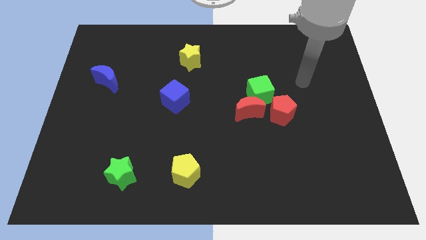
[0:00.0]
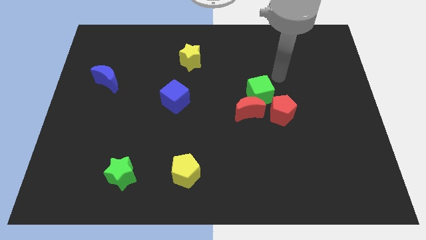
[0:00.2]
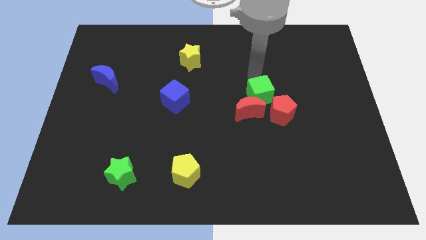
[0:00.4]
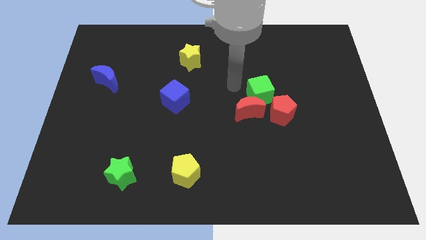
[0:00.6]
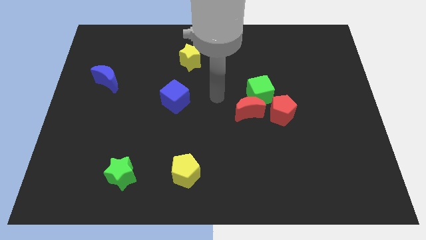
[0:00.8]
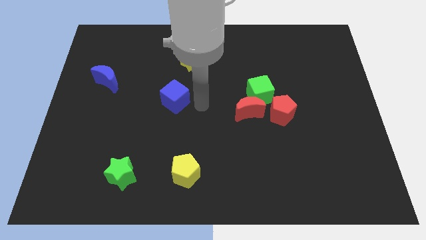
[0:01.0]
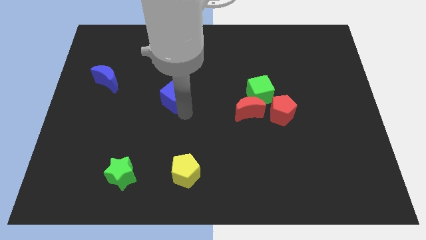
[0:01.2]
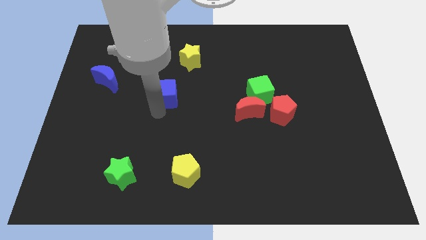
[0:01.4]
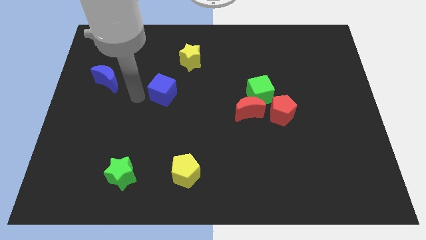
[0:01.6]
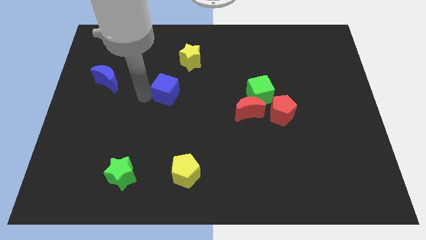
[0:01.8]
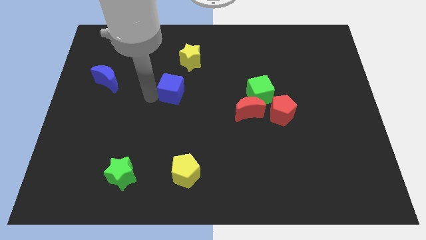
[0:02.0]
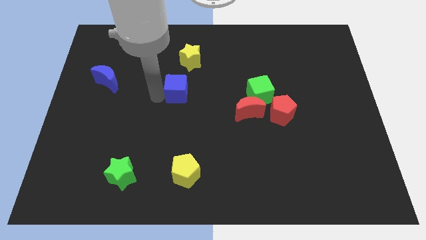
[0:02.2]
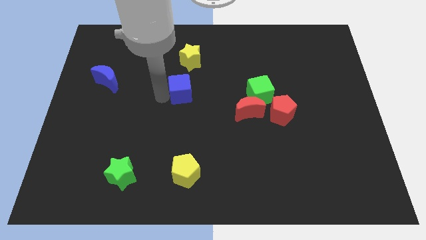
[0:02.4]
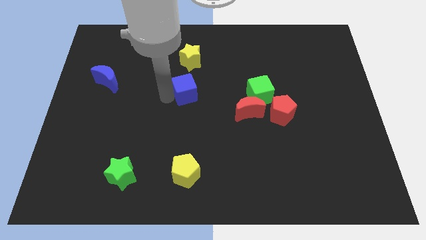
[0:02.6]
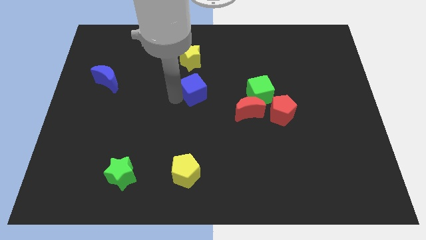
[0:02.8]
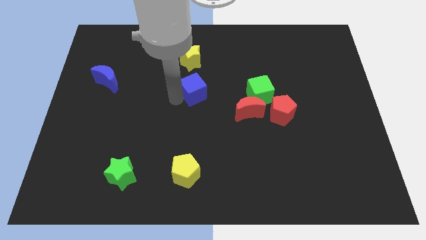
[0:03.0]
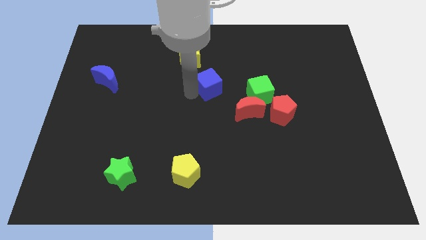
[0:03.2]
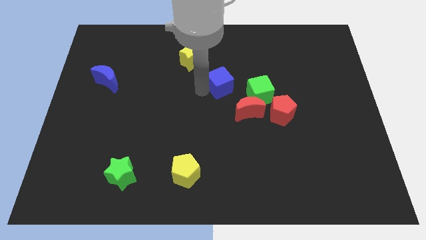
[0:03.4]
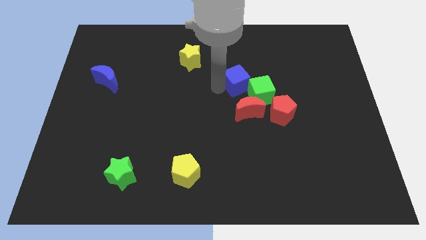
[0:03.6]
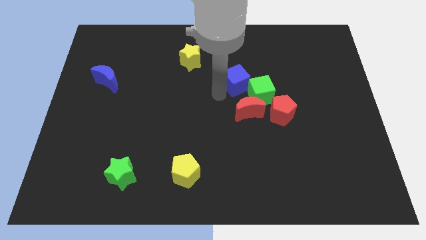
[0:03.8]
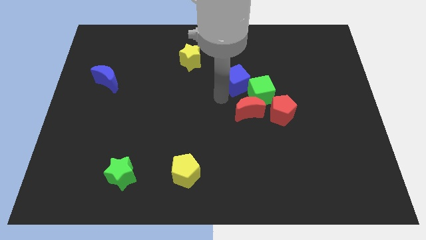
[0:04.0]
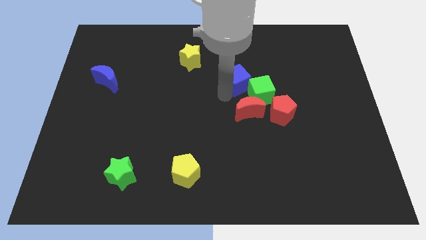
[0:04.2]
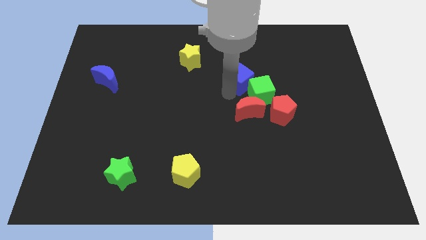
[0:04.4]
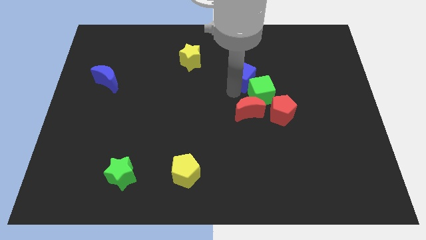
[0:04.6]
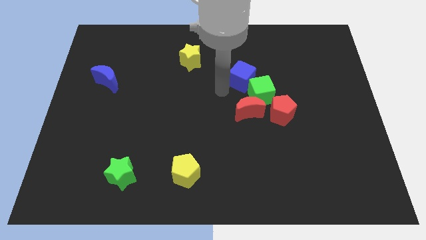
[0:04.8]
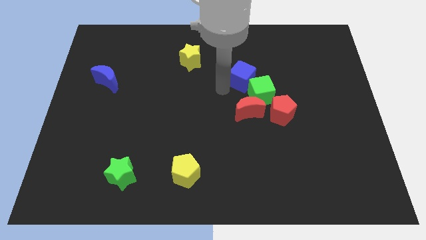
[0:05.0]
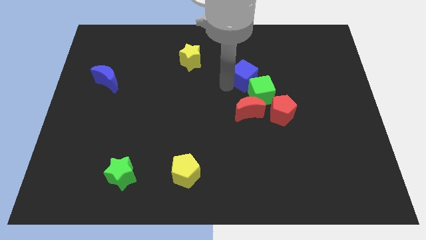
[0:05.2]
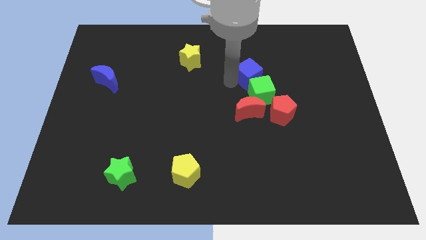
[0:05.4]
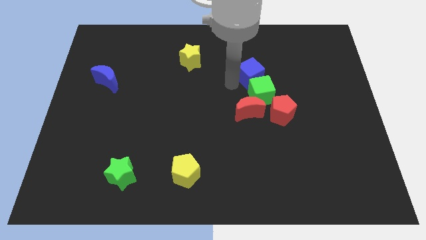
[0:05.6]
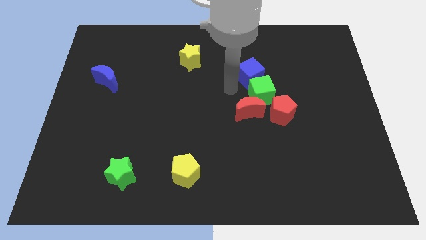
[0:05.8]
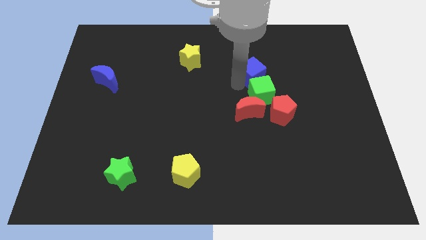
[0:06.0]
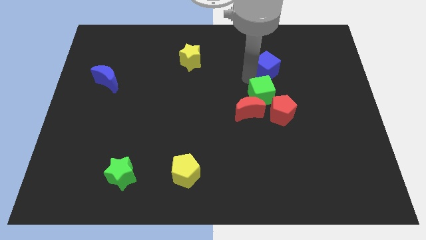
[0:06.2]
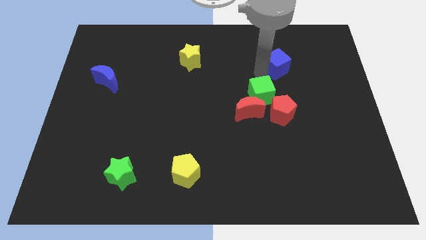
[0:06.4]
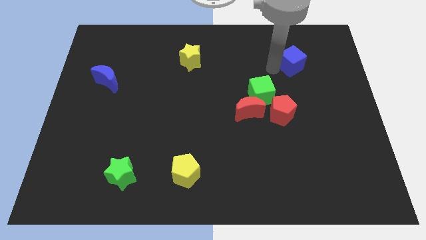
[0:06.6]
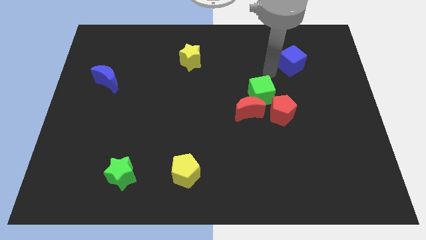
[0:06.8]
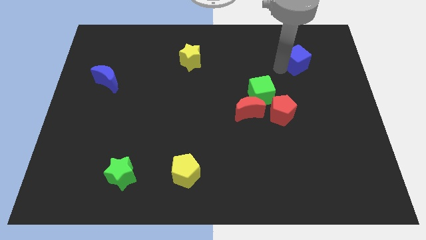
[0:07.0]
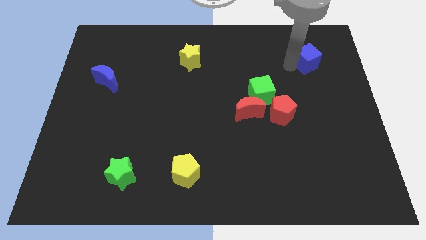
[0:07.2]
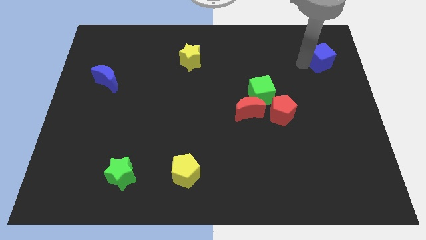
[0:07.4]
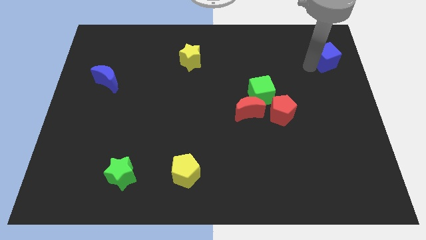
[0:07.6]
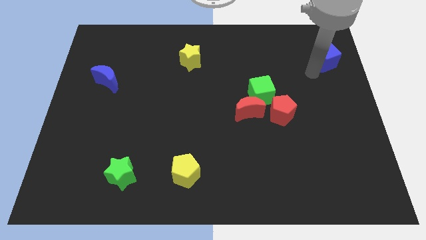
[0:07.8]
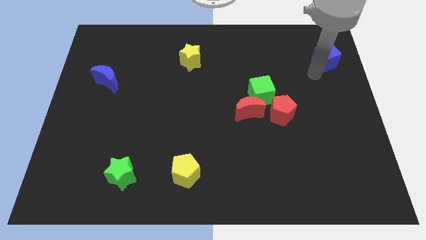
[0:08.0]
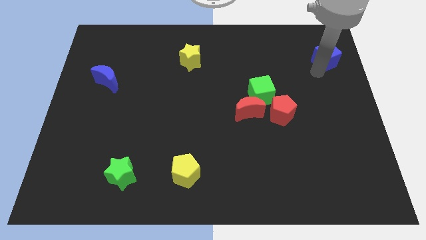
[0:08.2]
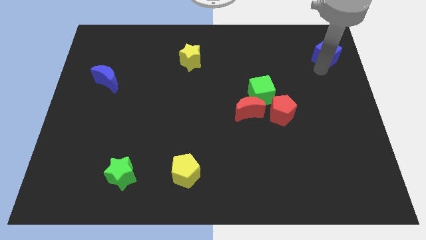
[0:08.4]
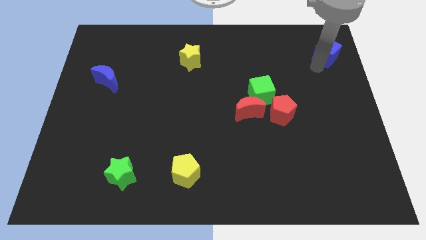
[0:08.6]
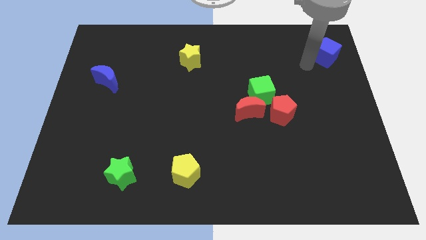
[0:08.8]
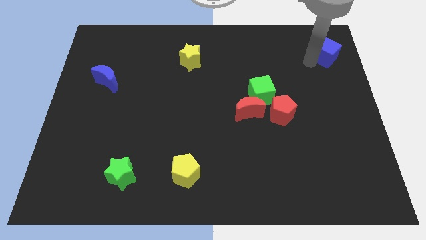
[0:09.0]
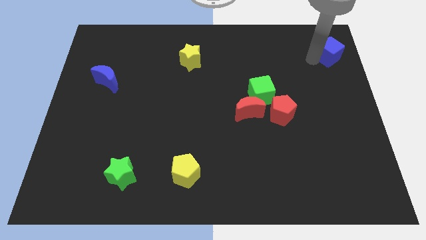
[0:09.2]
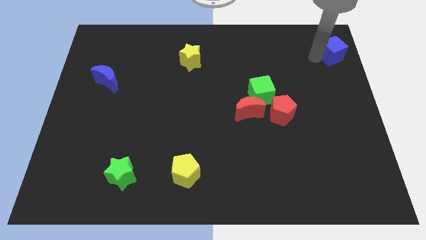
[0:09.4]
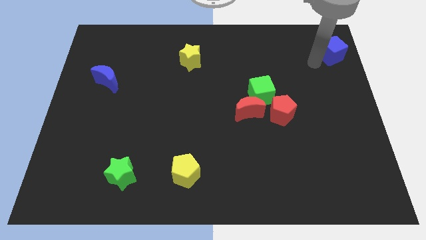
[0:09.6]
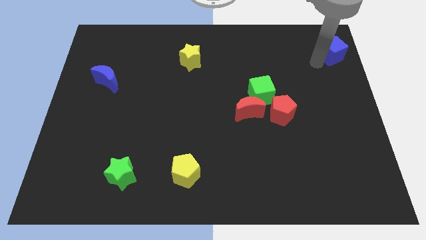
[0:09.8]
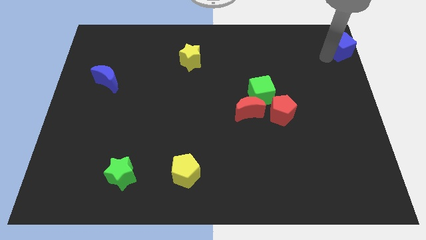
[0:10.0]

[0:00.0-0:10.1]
slide the blue cube to the upper right corner

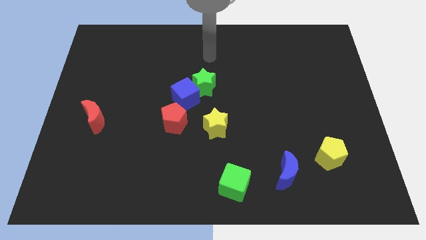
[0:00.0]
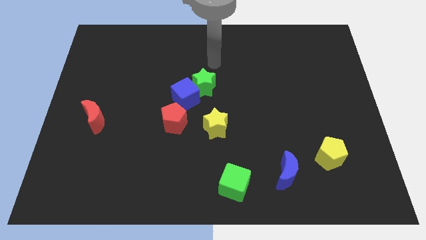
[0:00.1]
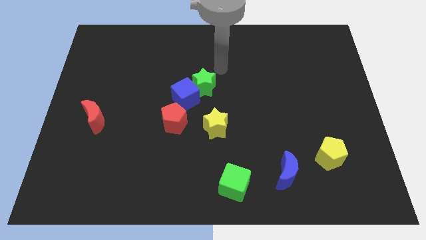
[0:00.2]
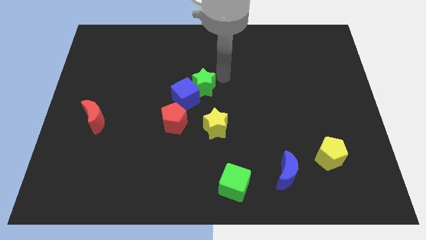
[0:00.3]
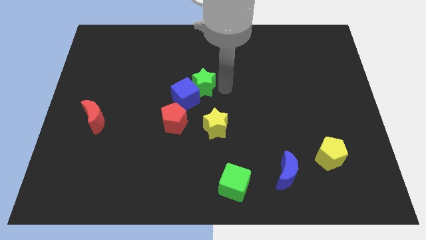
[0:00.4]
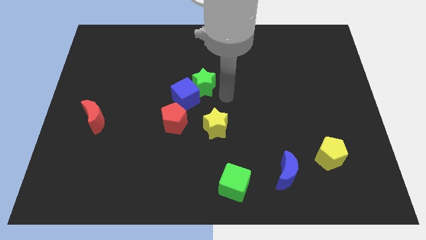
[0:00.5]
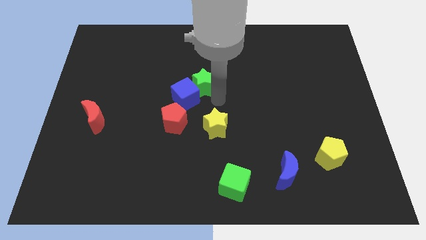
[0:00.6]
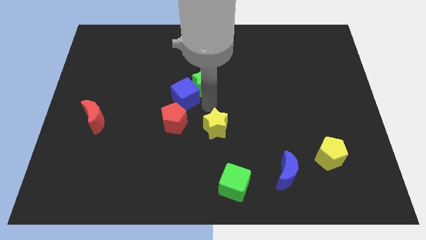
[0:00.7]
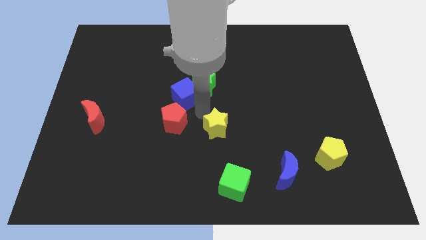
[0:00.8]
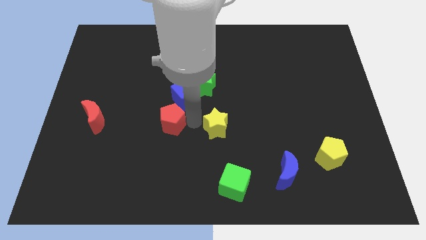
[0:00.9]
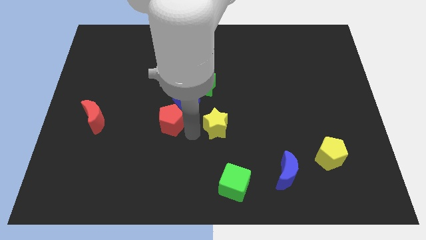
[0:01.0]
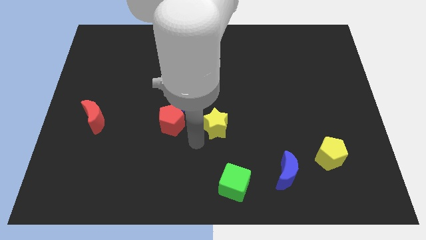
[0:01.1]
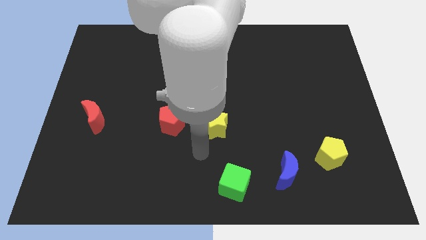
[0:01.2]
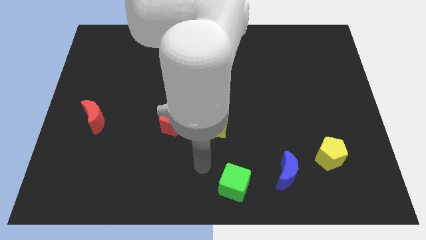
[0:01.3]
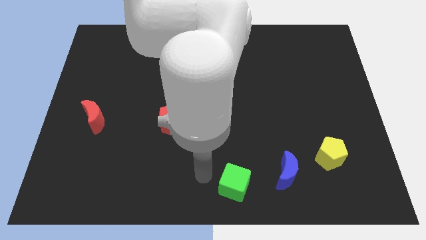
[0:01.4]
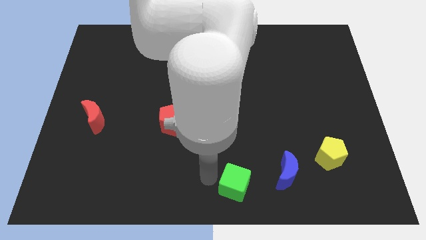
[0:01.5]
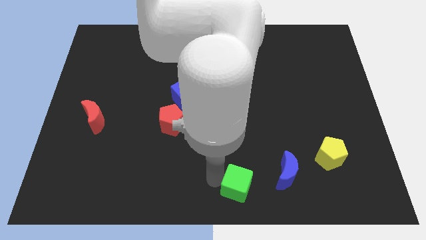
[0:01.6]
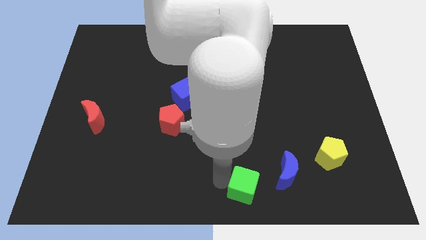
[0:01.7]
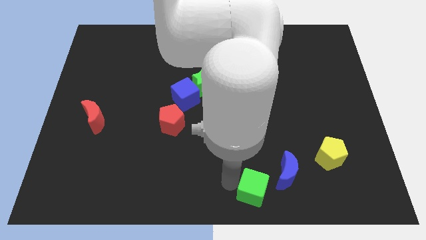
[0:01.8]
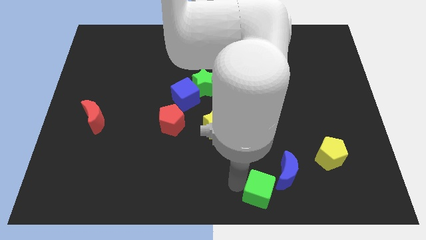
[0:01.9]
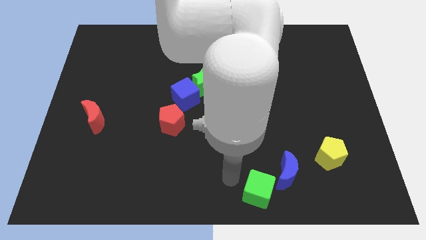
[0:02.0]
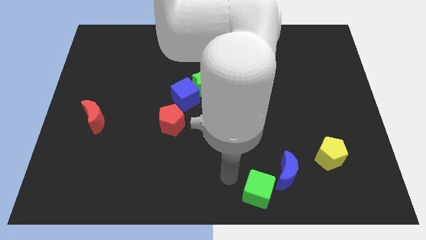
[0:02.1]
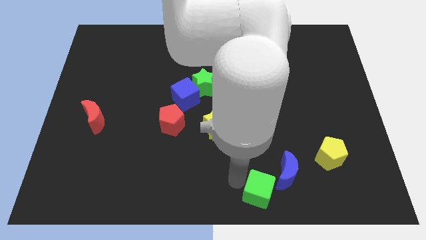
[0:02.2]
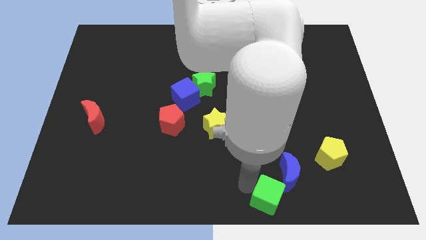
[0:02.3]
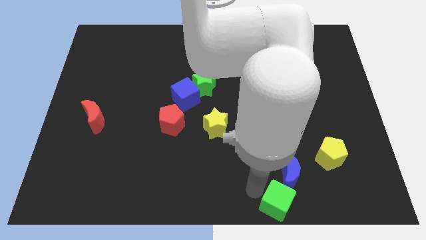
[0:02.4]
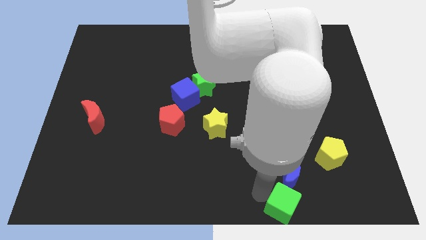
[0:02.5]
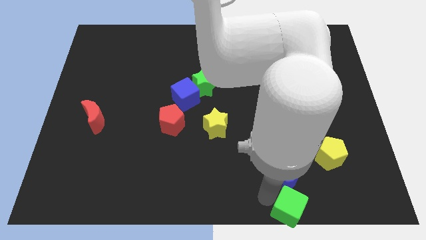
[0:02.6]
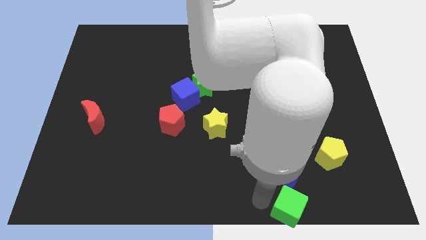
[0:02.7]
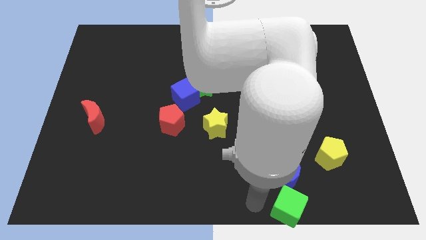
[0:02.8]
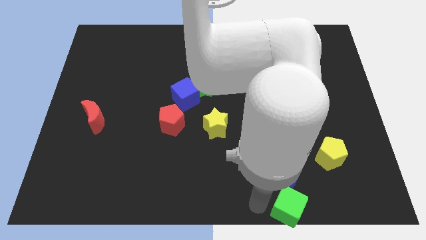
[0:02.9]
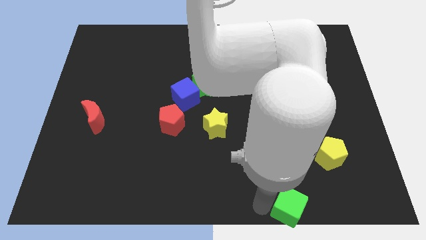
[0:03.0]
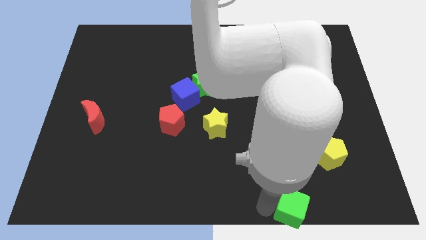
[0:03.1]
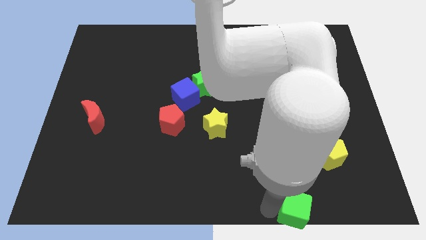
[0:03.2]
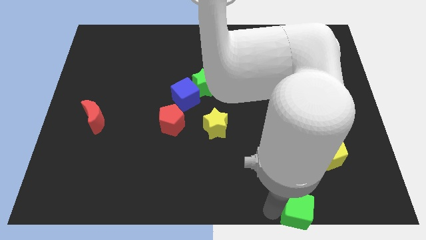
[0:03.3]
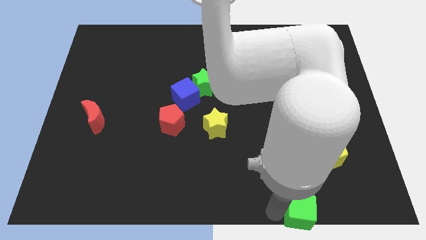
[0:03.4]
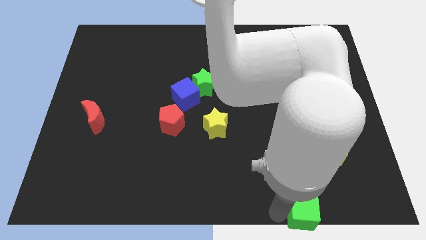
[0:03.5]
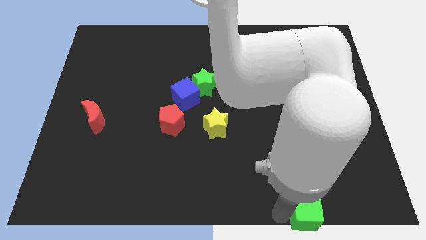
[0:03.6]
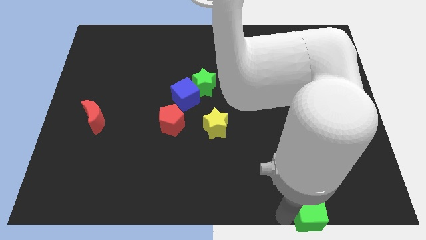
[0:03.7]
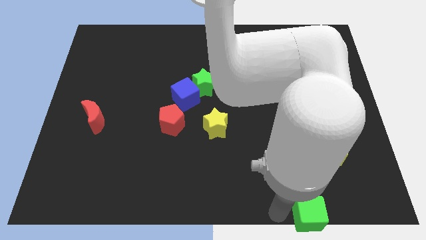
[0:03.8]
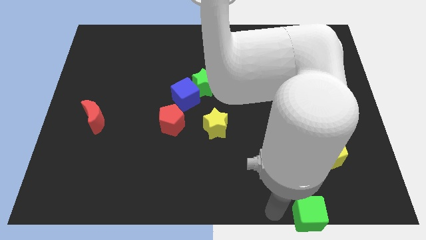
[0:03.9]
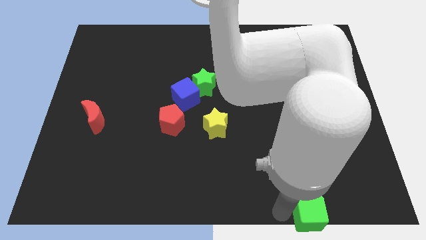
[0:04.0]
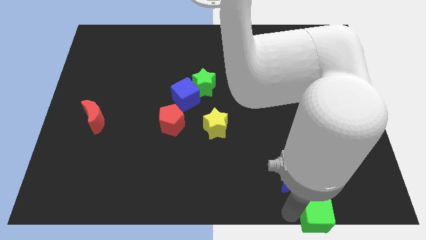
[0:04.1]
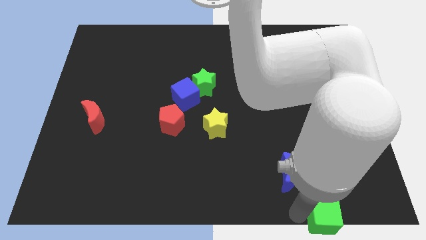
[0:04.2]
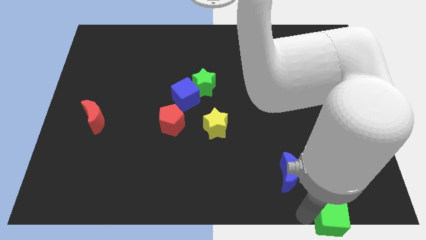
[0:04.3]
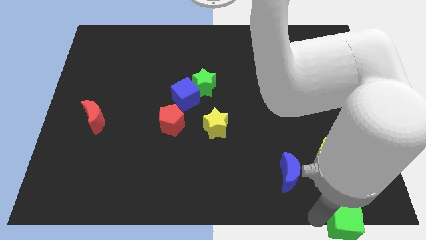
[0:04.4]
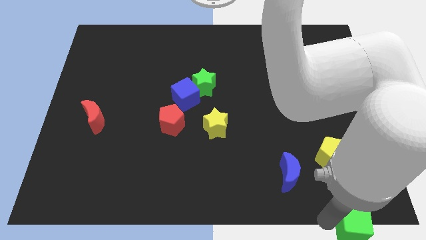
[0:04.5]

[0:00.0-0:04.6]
push the green cube to the lower right corner
